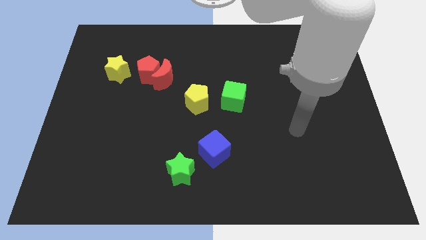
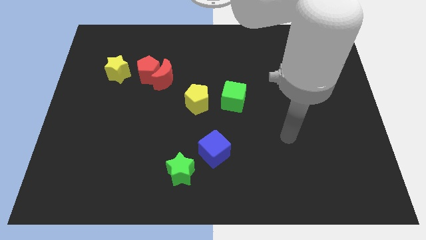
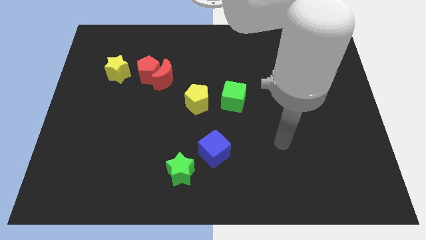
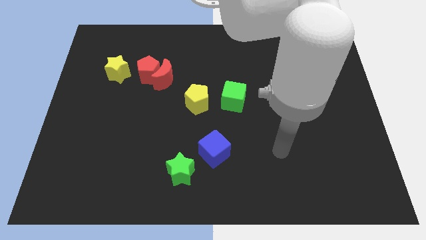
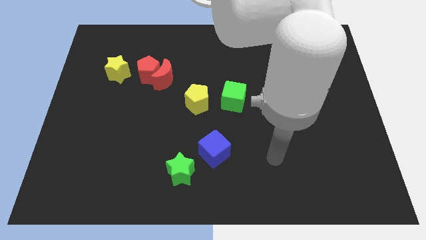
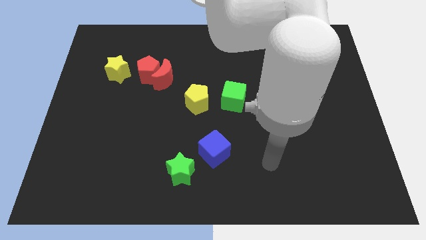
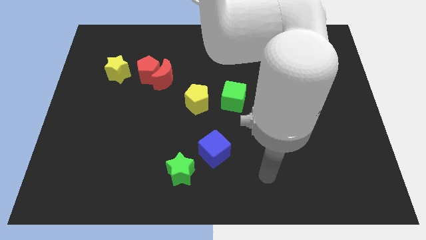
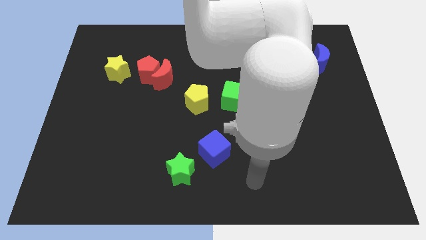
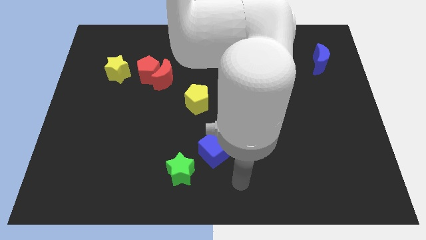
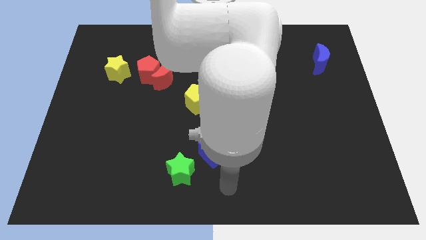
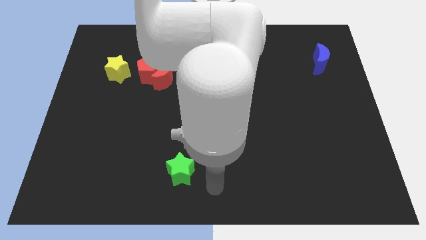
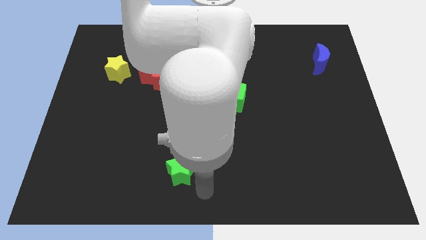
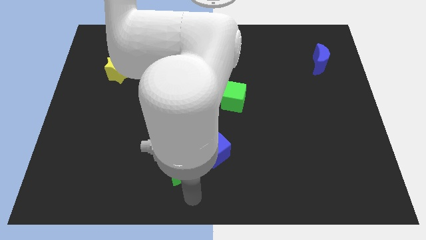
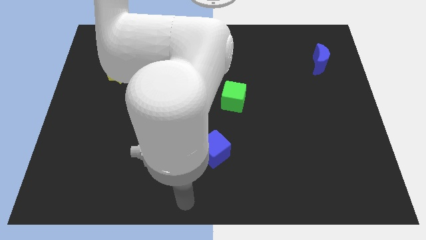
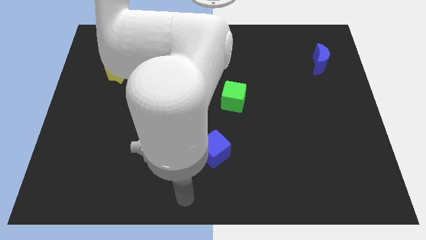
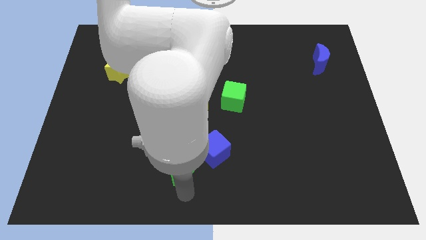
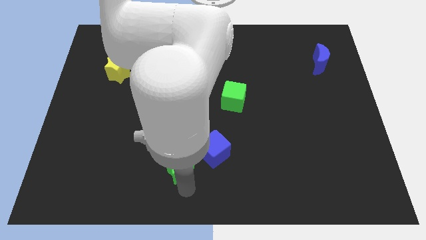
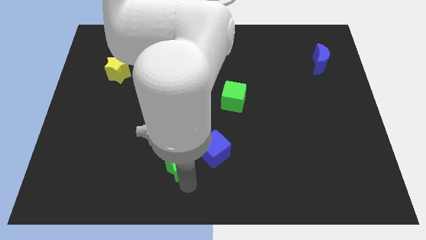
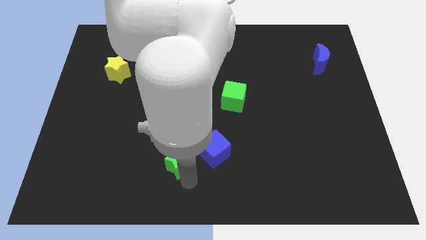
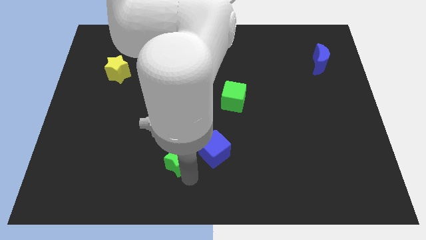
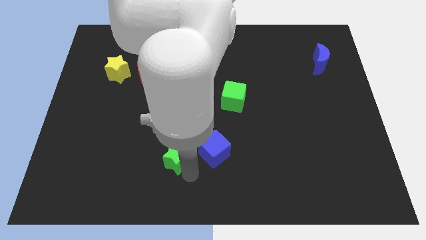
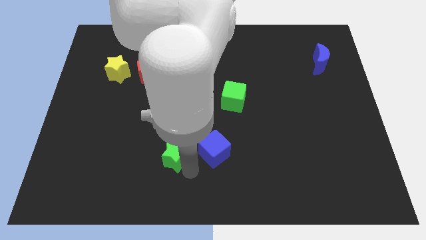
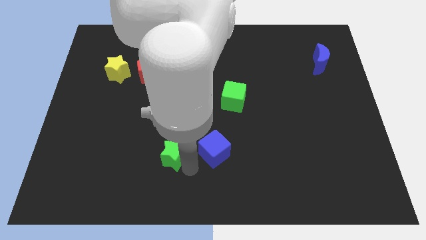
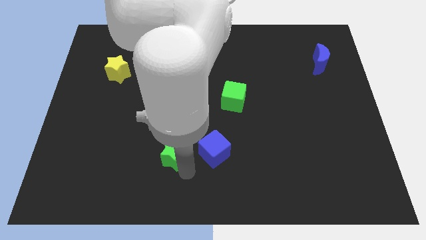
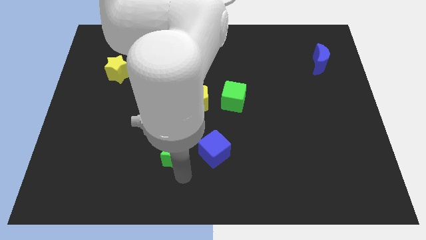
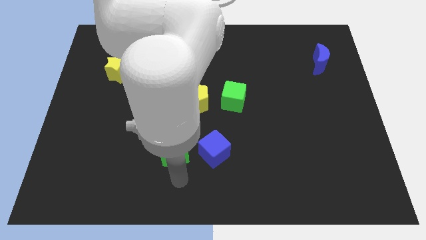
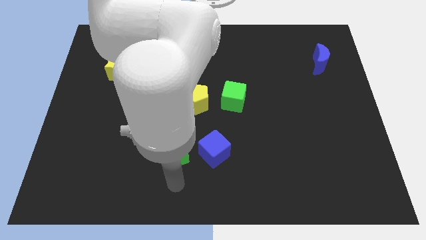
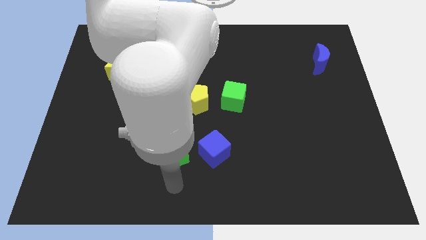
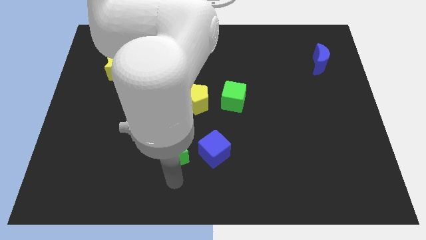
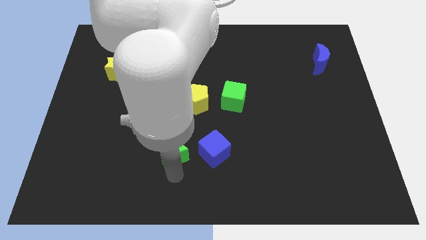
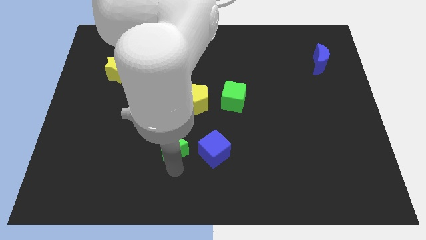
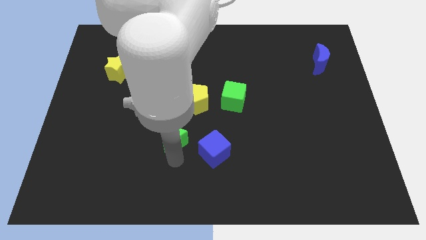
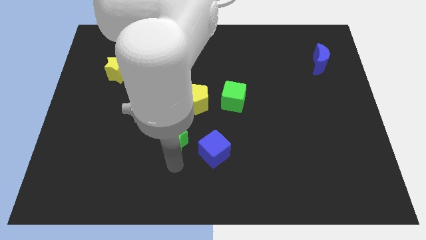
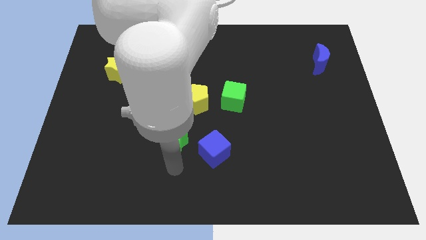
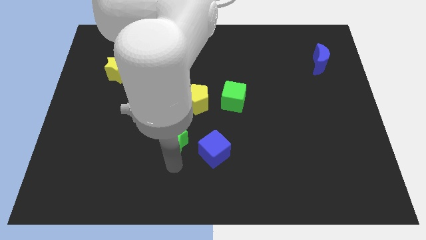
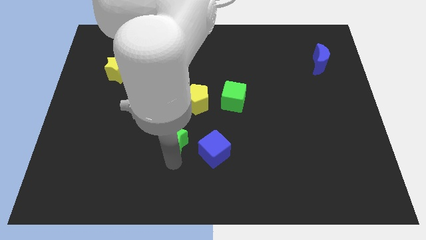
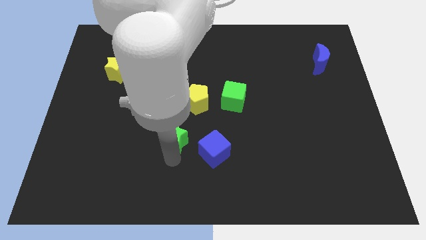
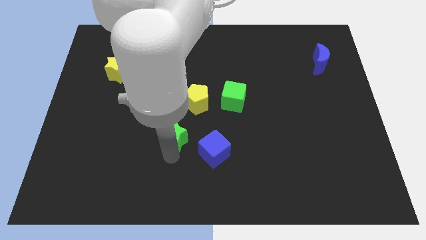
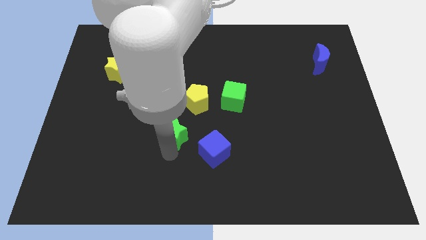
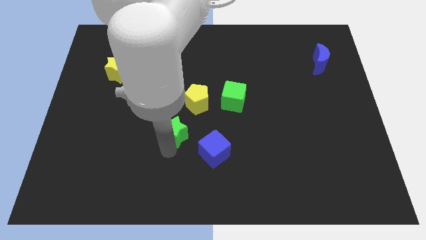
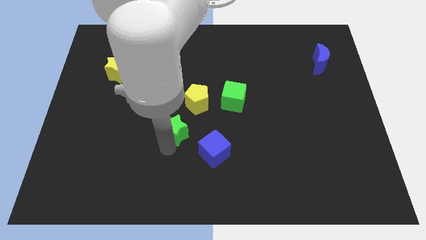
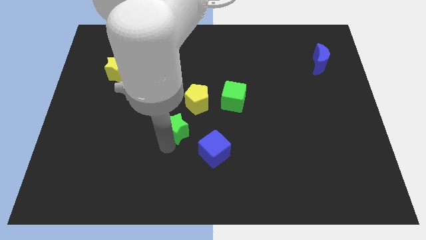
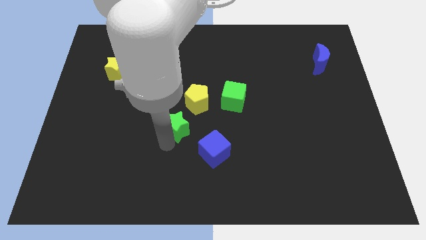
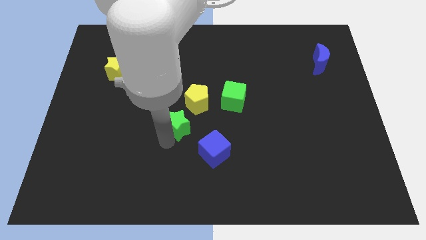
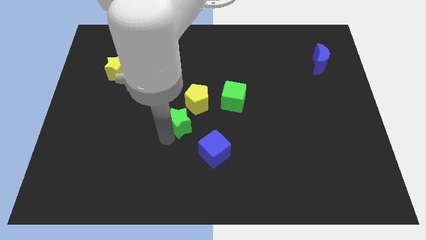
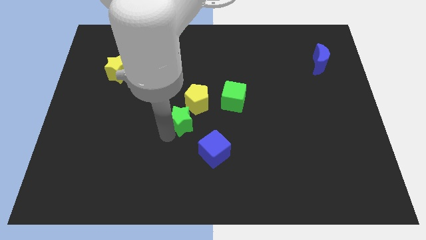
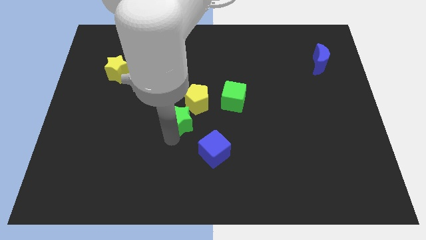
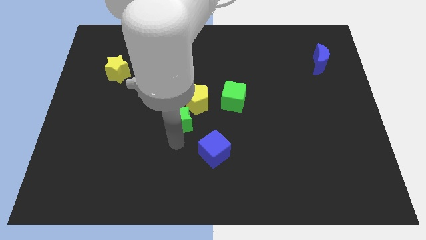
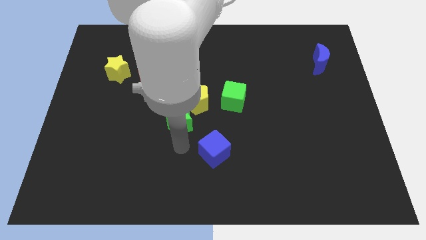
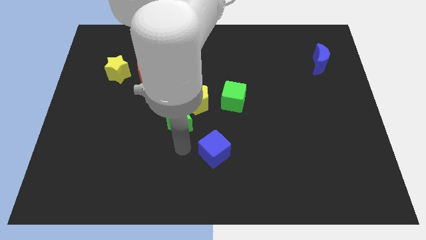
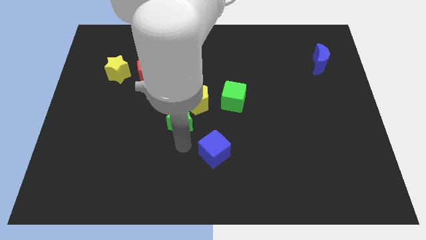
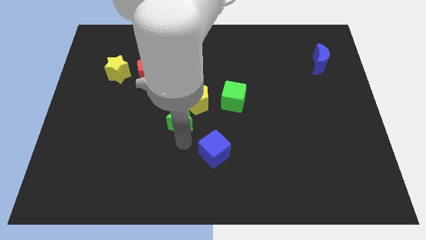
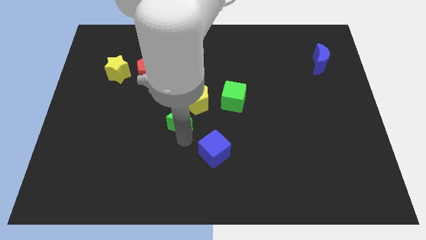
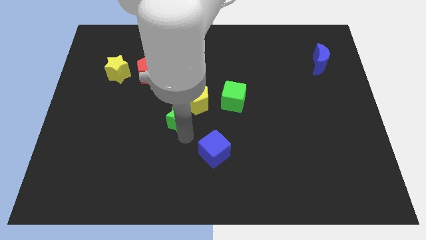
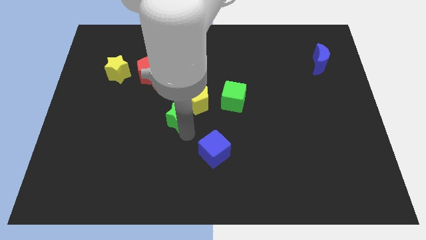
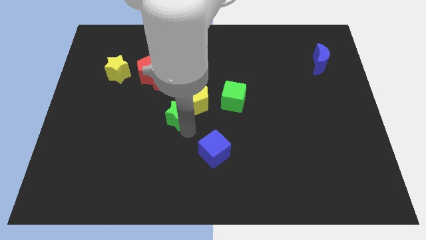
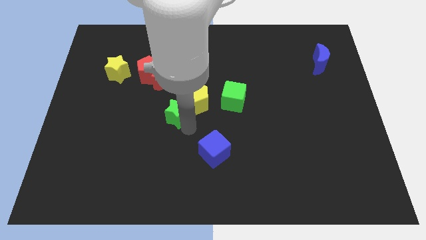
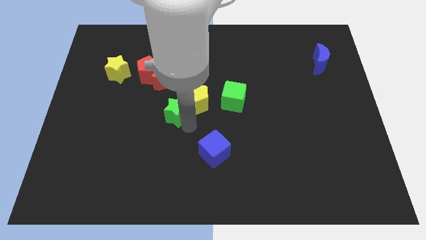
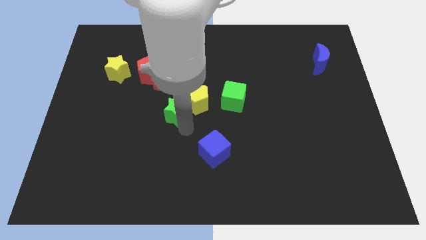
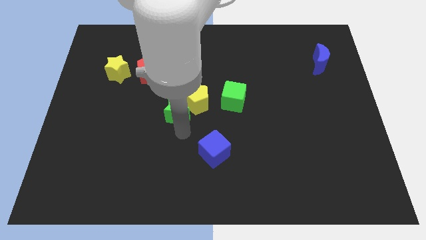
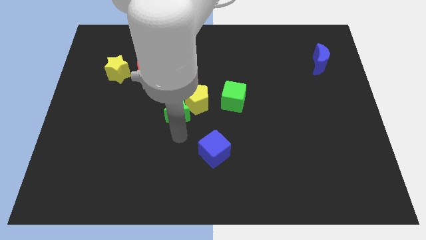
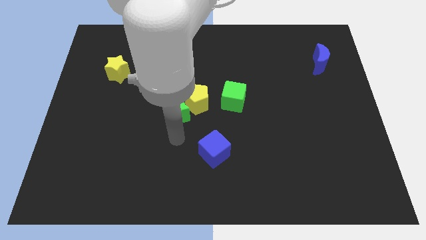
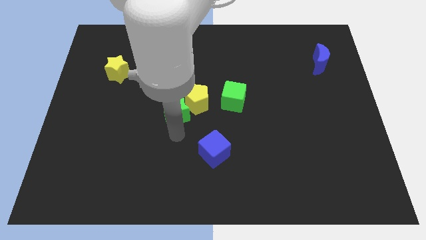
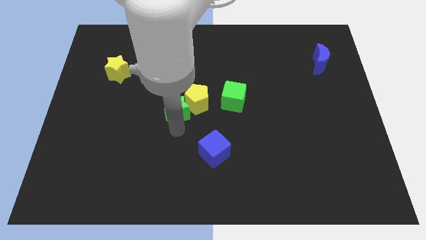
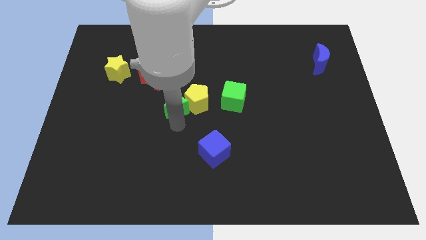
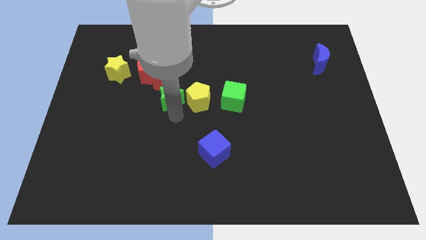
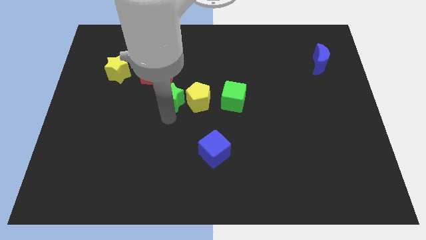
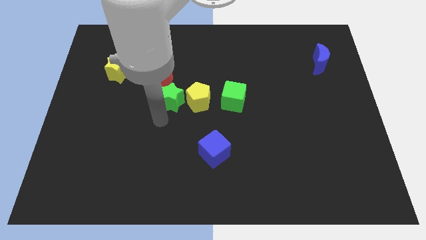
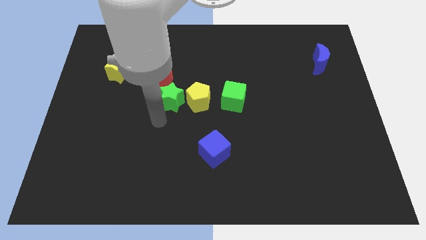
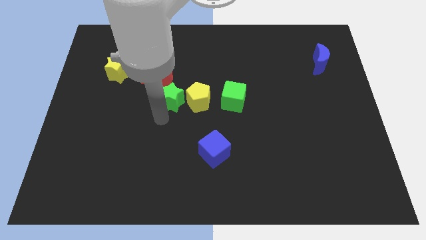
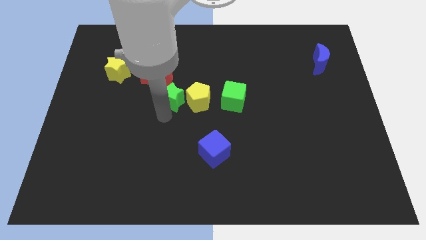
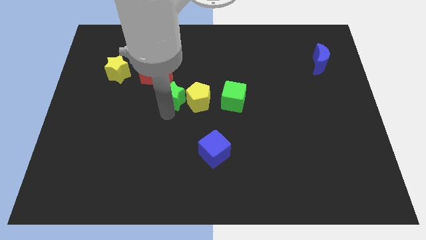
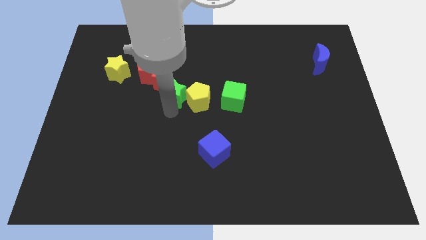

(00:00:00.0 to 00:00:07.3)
slide the green star up

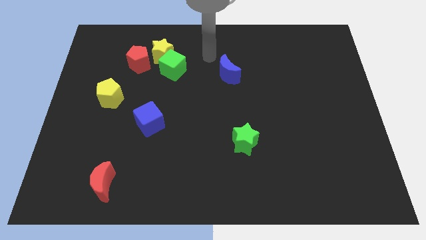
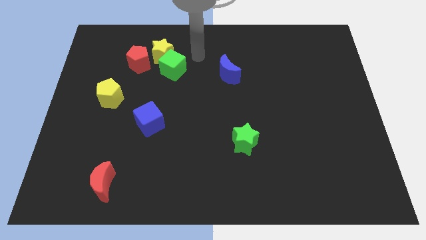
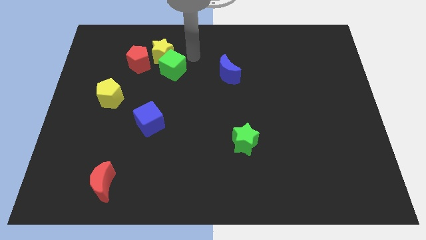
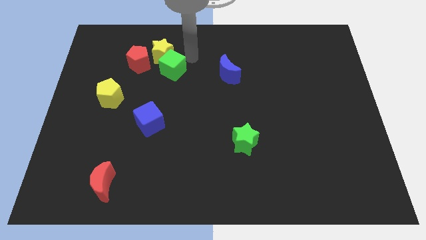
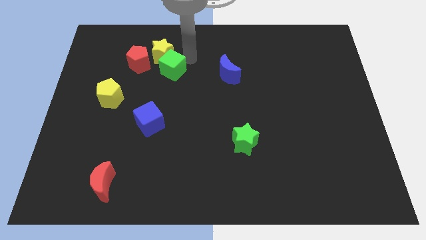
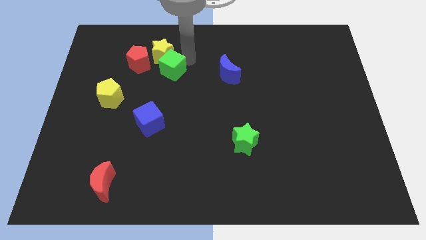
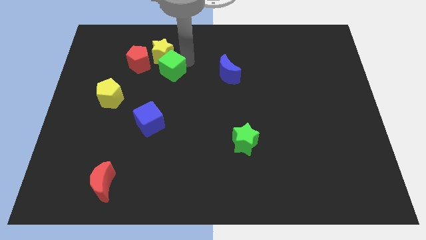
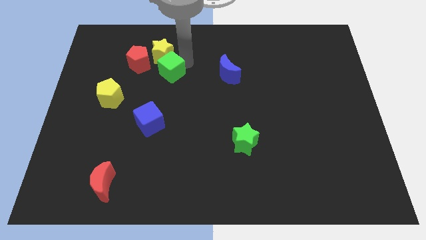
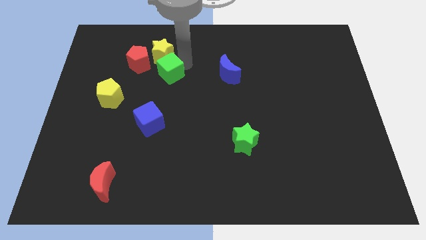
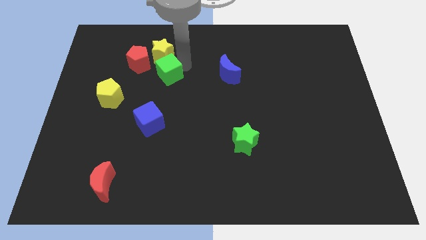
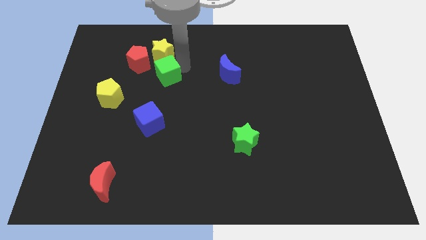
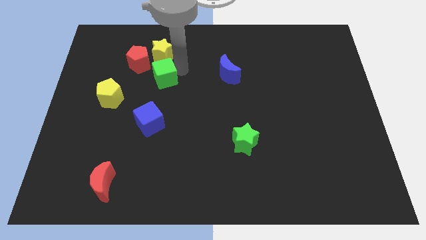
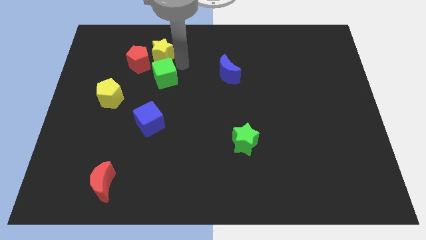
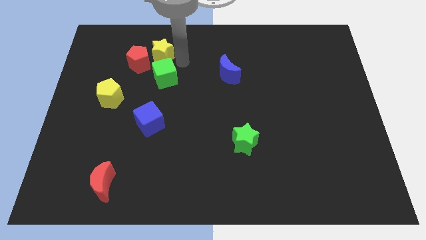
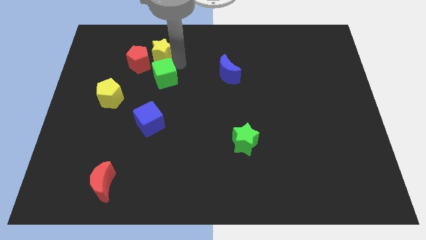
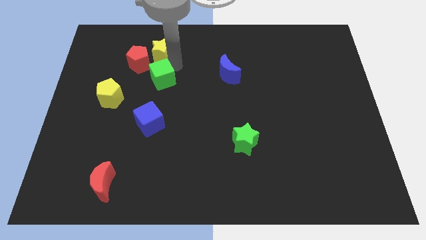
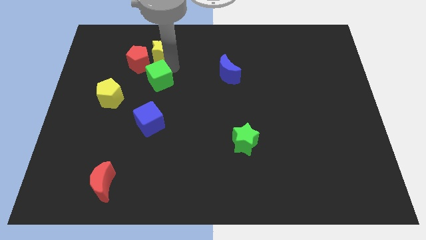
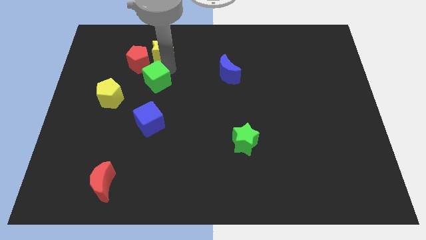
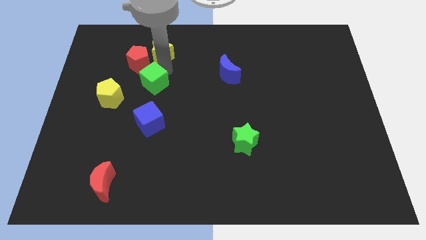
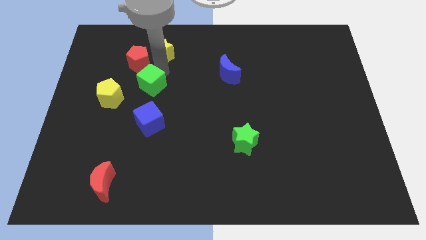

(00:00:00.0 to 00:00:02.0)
slide the green cube a bit downwards and then left
